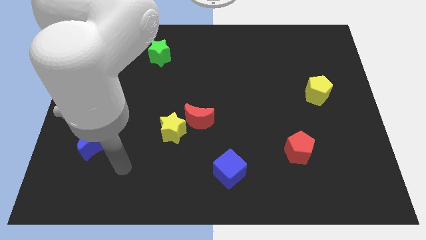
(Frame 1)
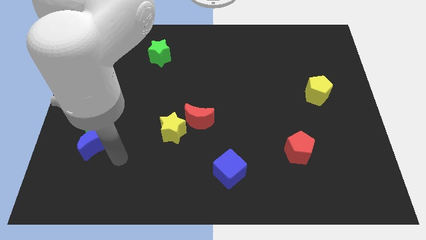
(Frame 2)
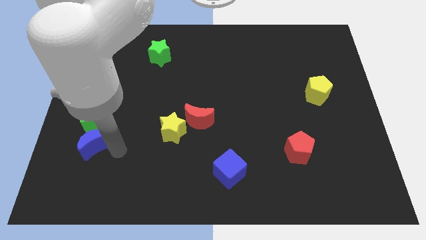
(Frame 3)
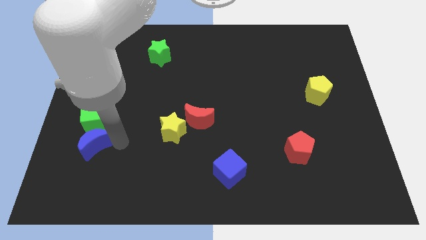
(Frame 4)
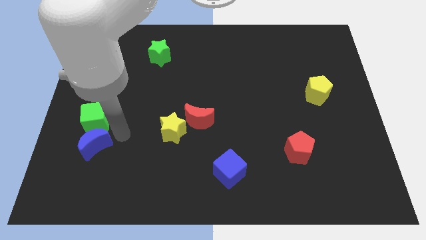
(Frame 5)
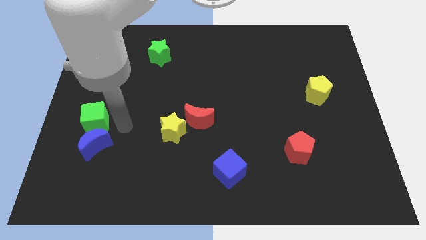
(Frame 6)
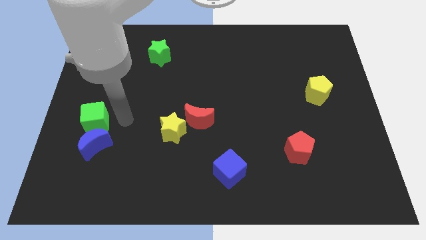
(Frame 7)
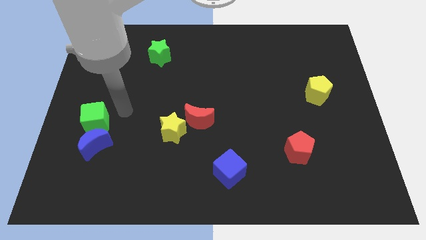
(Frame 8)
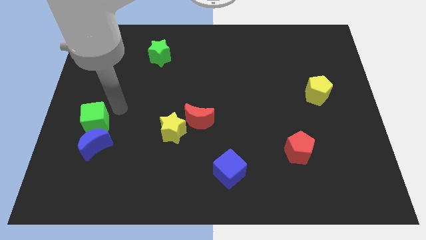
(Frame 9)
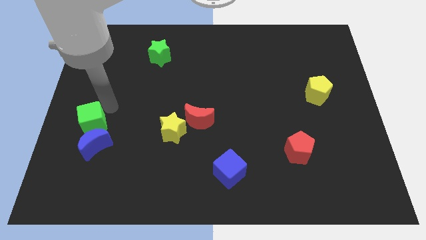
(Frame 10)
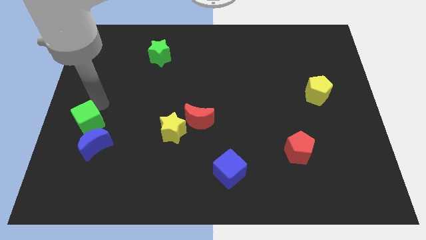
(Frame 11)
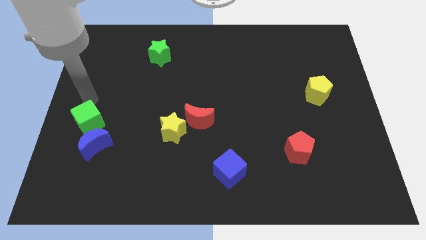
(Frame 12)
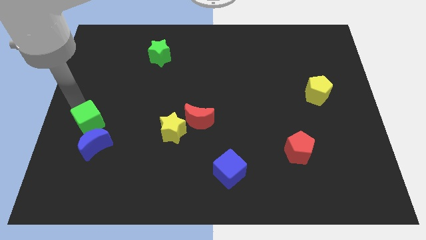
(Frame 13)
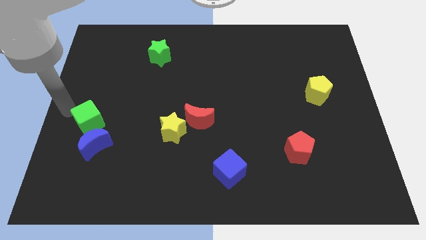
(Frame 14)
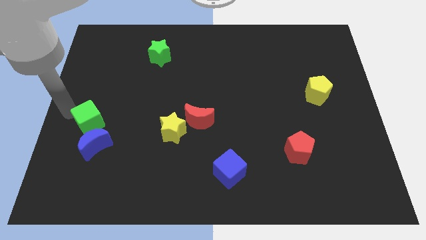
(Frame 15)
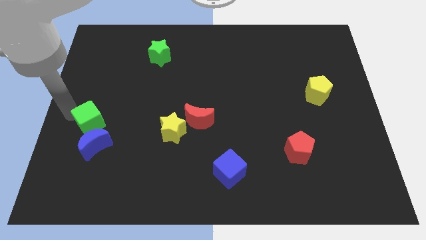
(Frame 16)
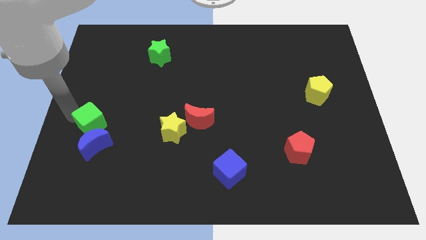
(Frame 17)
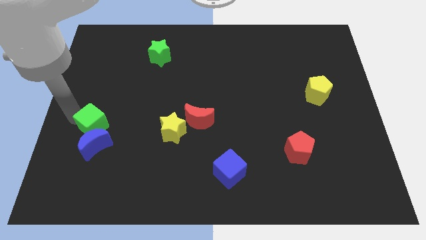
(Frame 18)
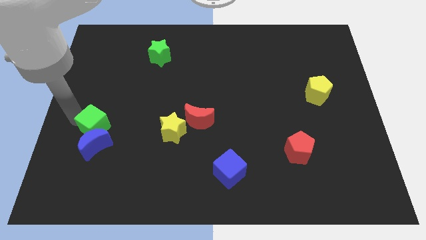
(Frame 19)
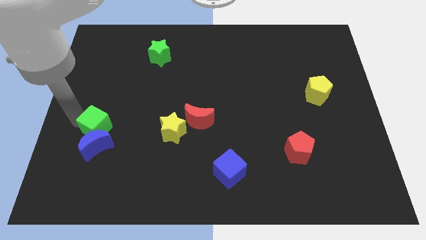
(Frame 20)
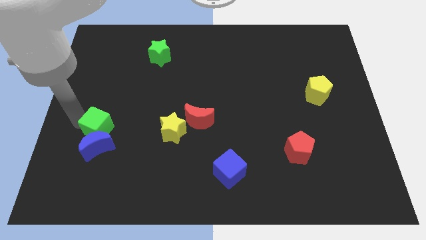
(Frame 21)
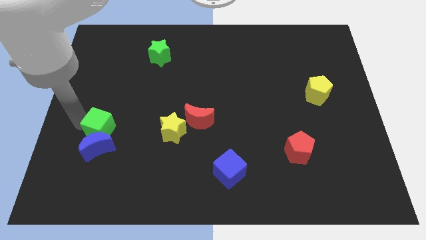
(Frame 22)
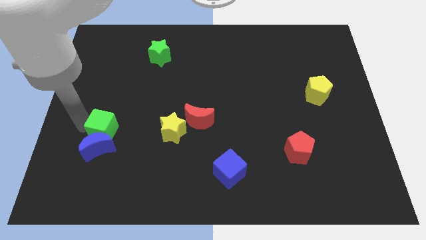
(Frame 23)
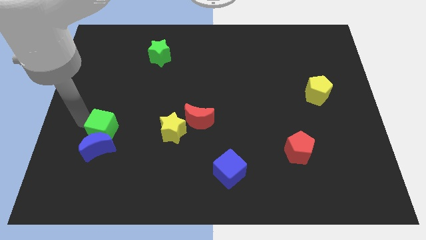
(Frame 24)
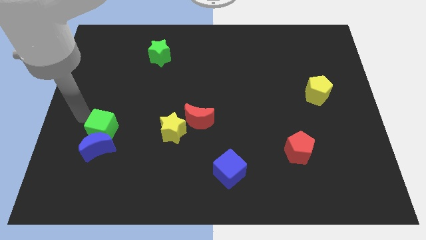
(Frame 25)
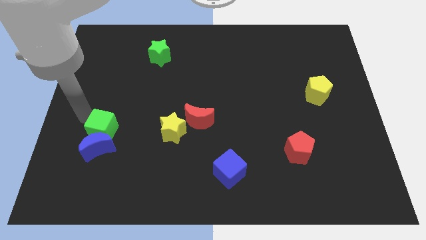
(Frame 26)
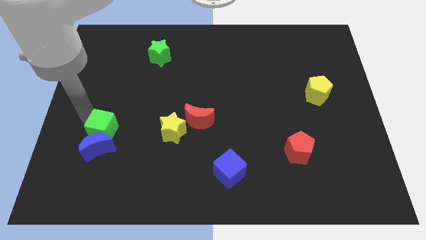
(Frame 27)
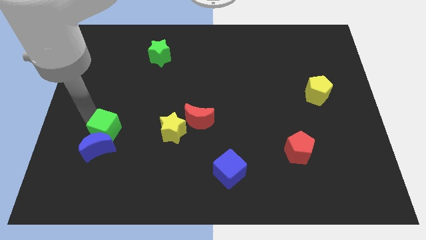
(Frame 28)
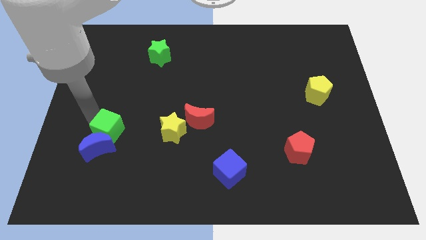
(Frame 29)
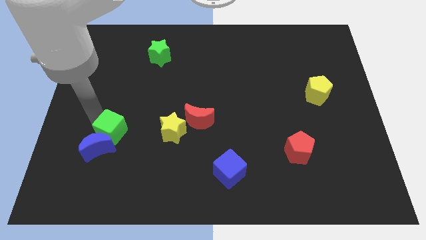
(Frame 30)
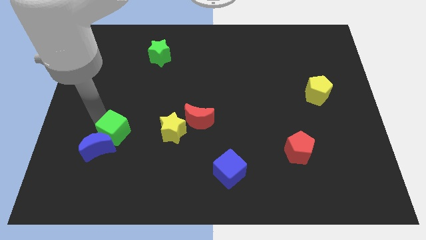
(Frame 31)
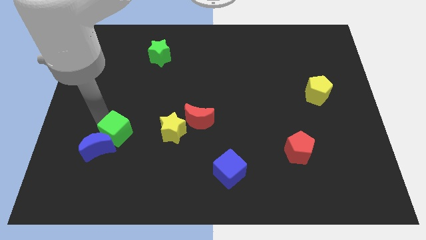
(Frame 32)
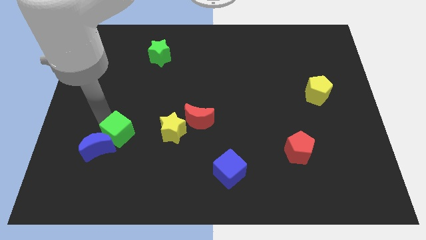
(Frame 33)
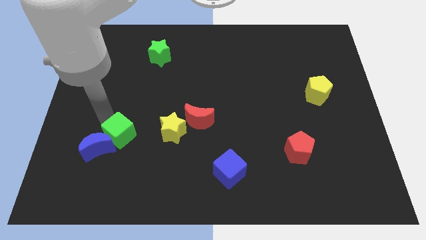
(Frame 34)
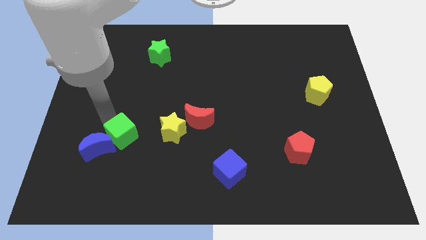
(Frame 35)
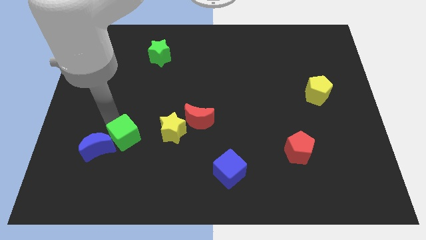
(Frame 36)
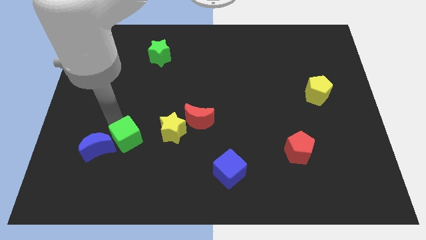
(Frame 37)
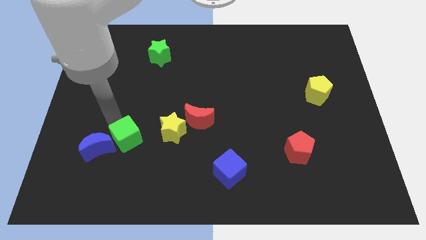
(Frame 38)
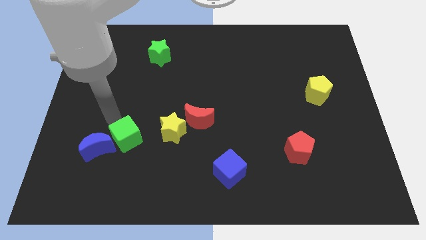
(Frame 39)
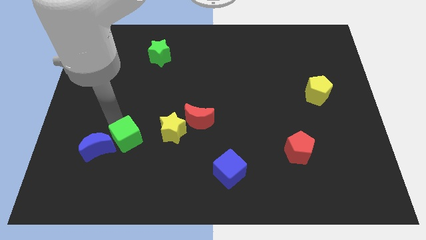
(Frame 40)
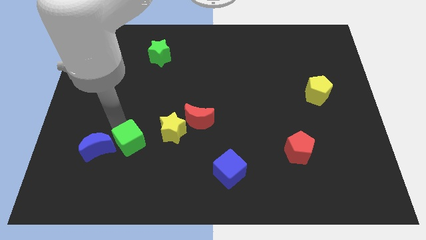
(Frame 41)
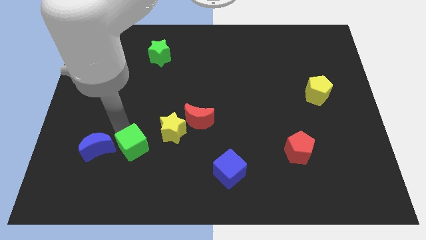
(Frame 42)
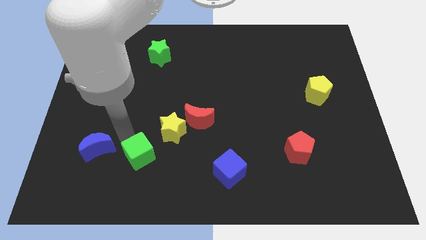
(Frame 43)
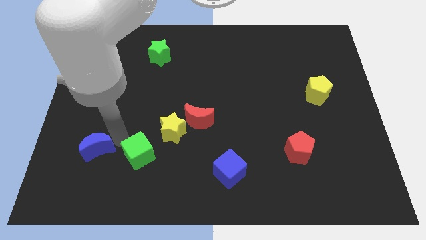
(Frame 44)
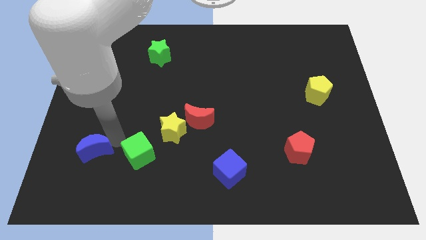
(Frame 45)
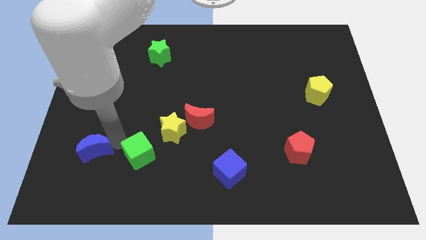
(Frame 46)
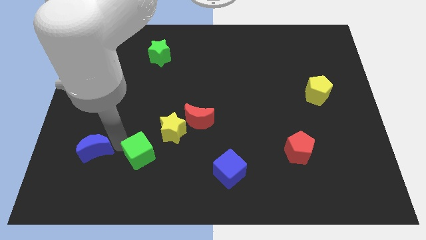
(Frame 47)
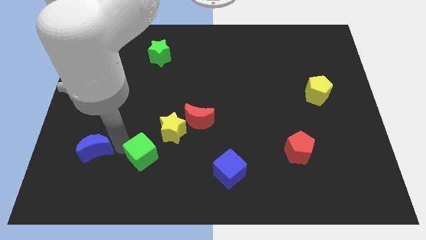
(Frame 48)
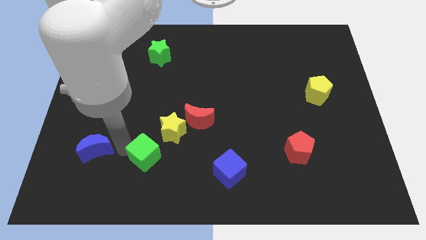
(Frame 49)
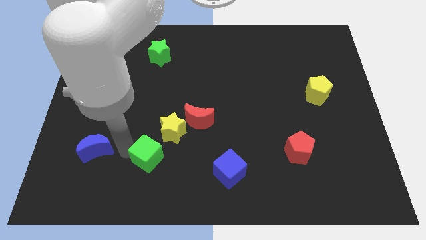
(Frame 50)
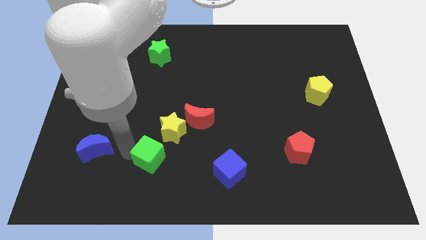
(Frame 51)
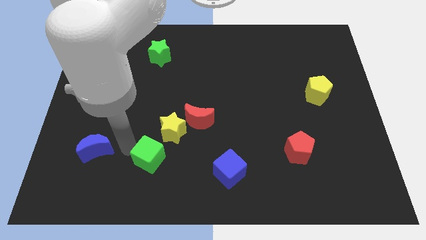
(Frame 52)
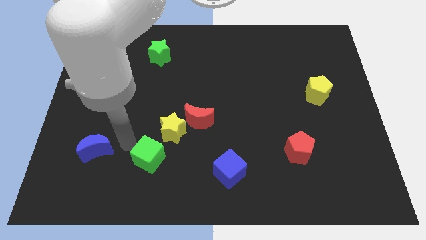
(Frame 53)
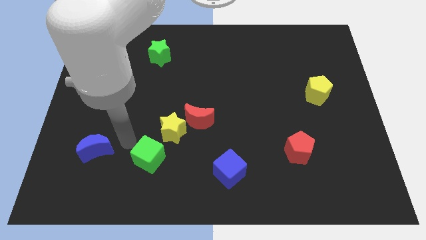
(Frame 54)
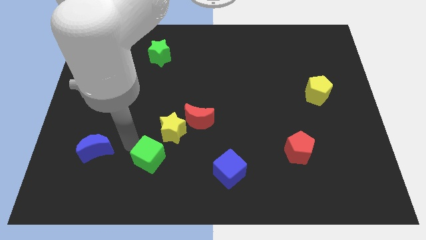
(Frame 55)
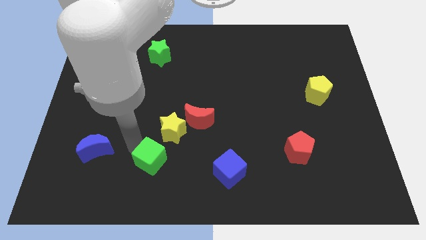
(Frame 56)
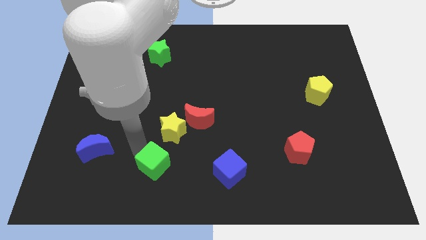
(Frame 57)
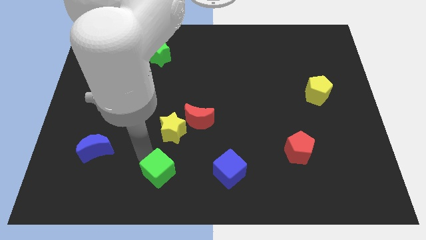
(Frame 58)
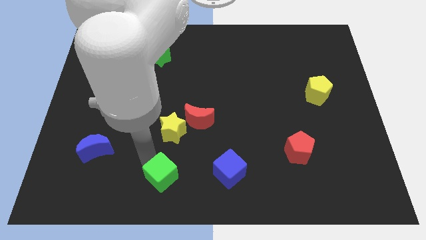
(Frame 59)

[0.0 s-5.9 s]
put the green cube to the bottom side
